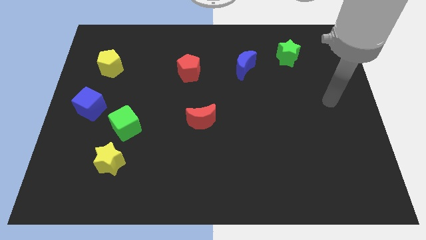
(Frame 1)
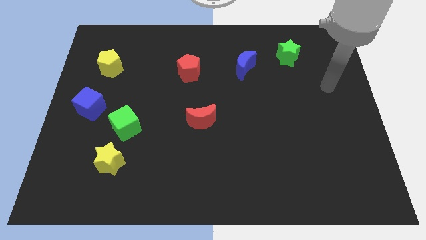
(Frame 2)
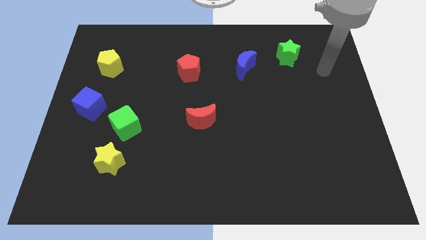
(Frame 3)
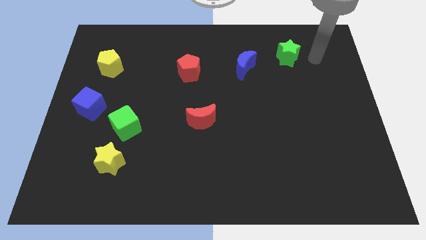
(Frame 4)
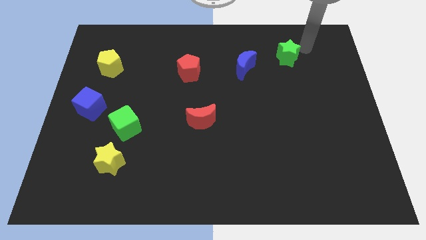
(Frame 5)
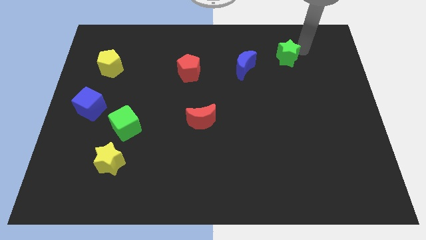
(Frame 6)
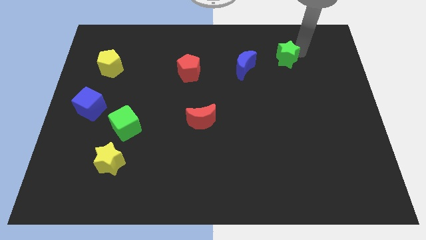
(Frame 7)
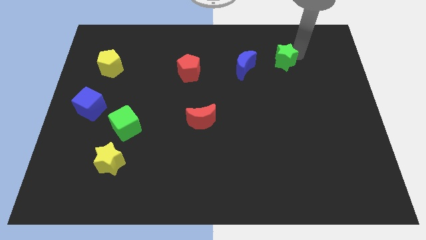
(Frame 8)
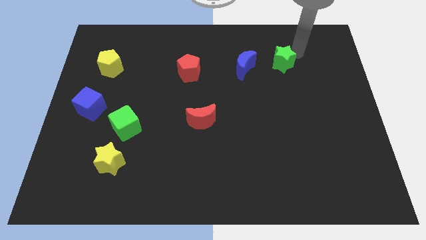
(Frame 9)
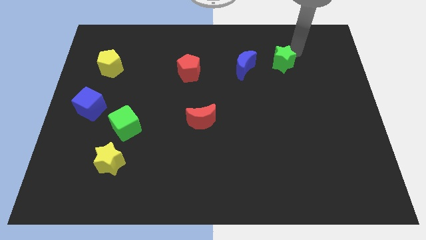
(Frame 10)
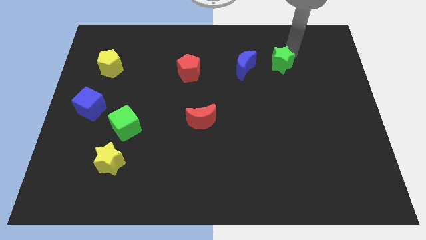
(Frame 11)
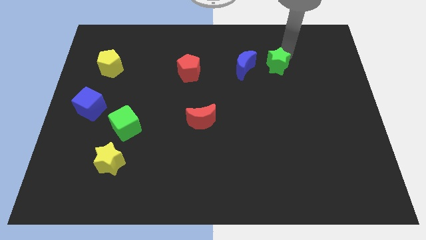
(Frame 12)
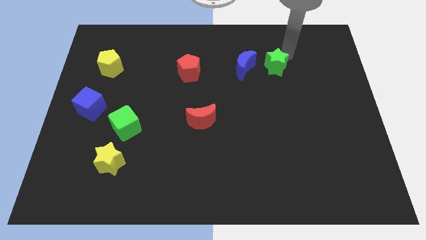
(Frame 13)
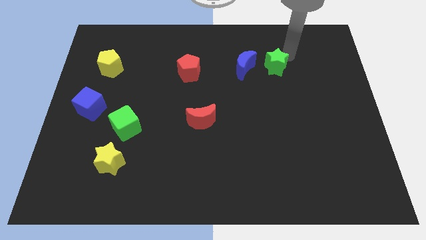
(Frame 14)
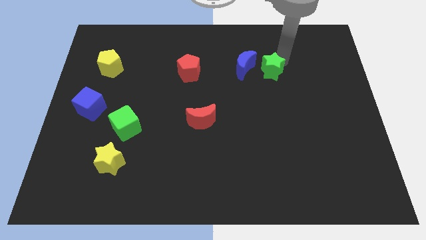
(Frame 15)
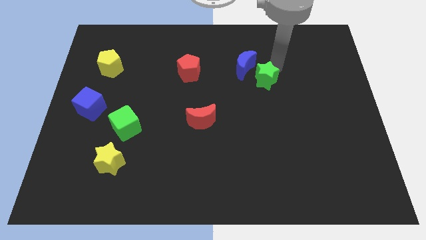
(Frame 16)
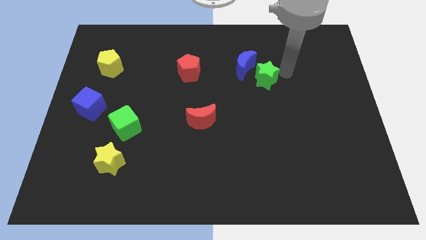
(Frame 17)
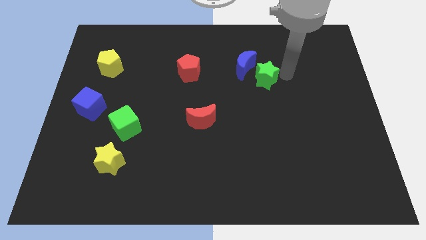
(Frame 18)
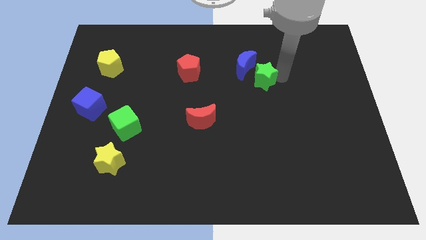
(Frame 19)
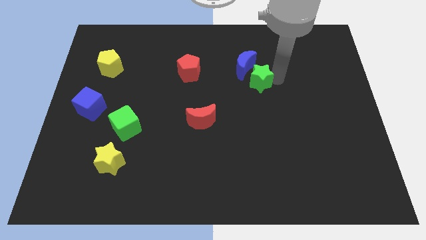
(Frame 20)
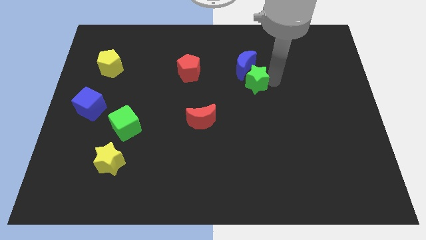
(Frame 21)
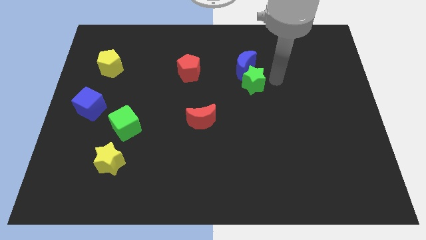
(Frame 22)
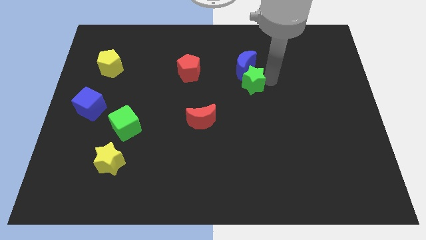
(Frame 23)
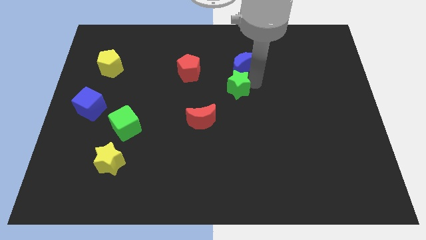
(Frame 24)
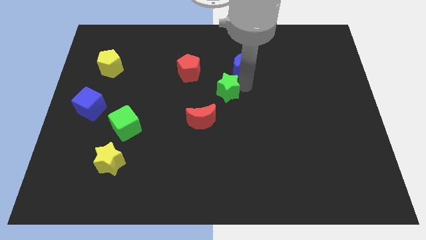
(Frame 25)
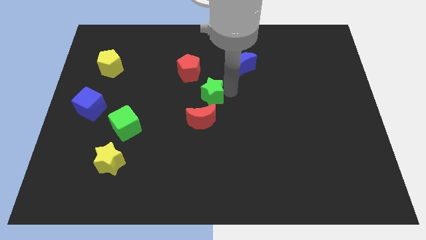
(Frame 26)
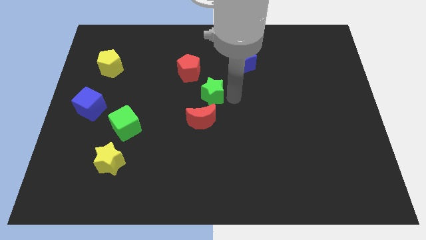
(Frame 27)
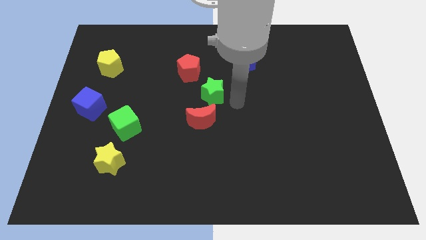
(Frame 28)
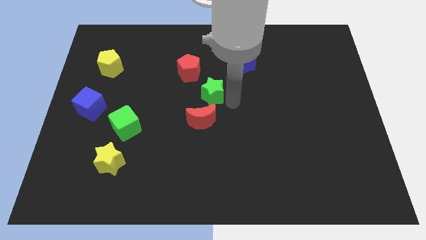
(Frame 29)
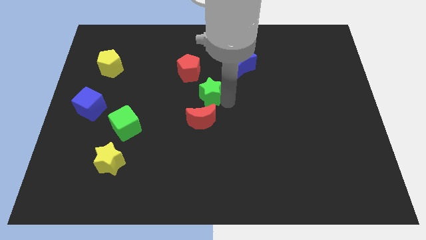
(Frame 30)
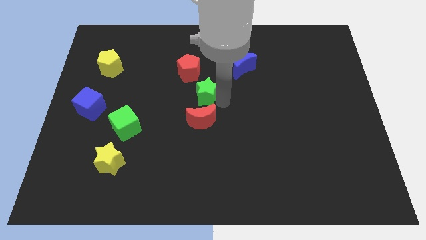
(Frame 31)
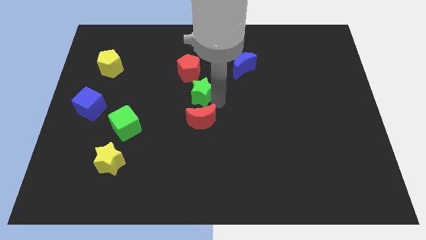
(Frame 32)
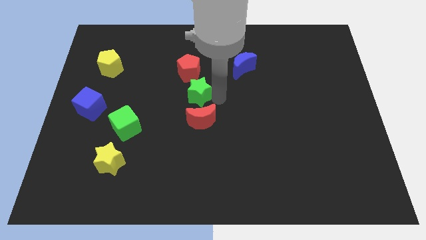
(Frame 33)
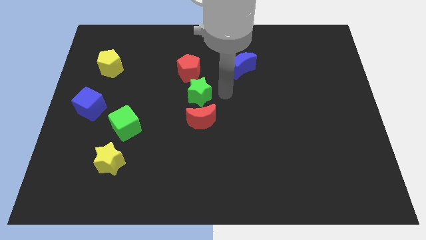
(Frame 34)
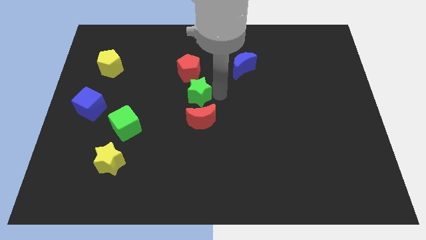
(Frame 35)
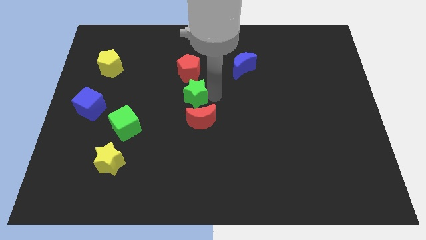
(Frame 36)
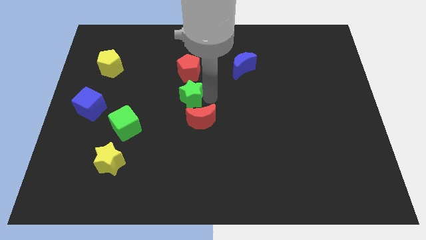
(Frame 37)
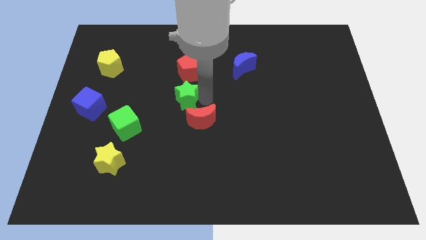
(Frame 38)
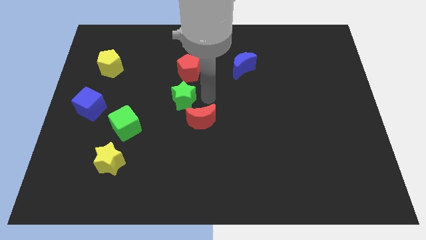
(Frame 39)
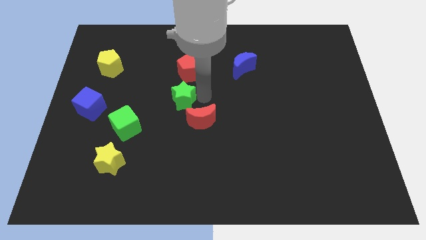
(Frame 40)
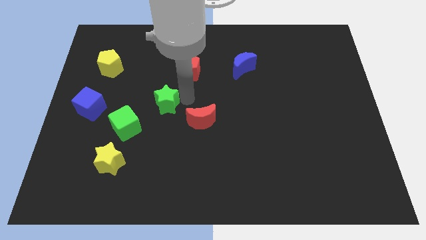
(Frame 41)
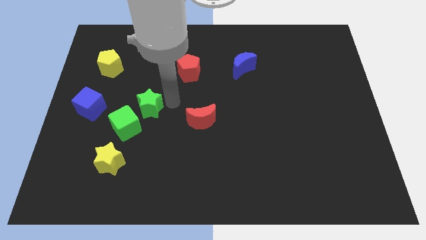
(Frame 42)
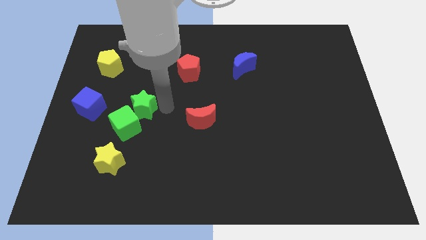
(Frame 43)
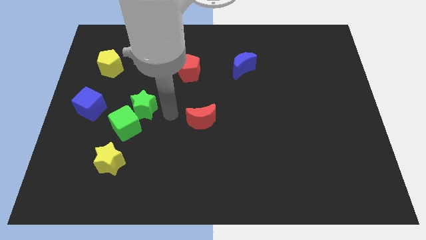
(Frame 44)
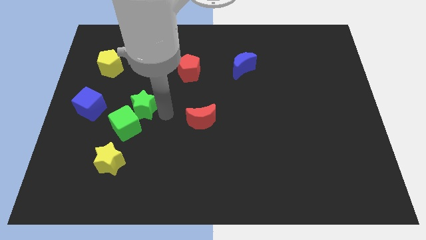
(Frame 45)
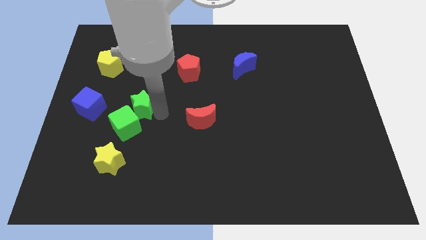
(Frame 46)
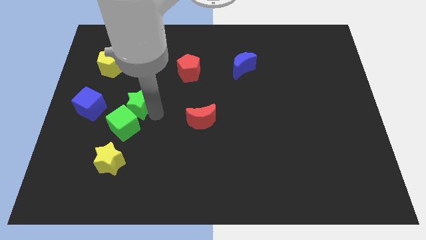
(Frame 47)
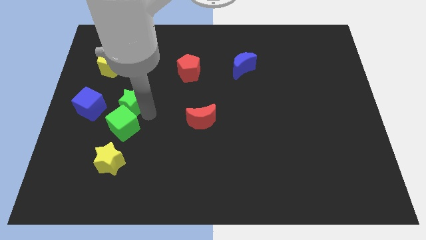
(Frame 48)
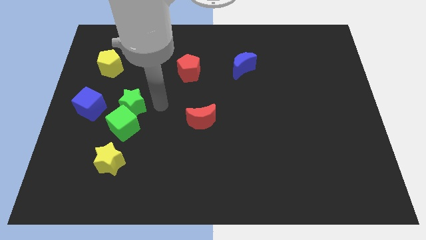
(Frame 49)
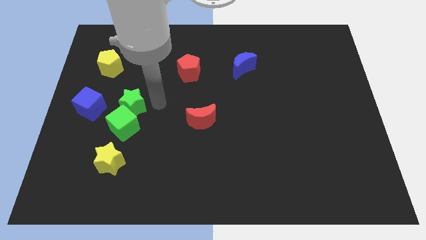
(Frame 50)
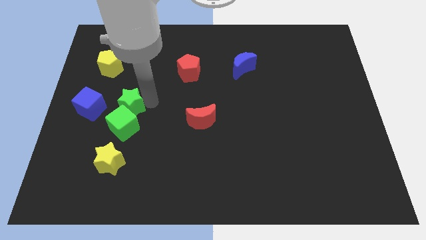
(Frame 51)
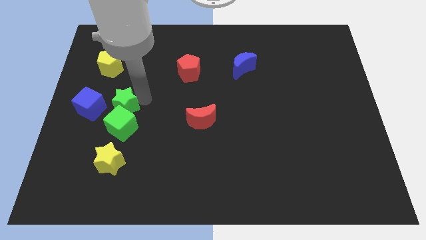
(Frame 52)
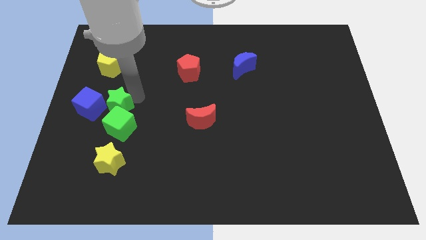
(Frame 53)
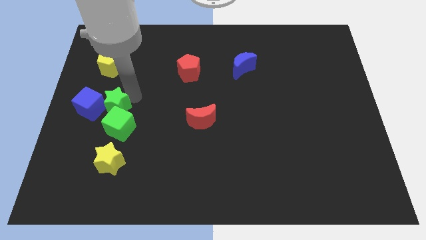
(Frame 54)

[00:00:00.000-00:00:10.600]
move the green star towards the blue cube

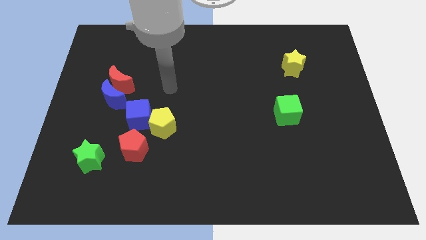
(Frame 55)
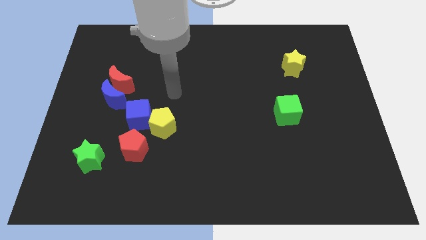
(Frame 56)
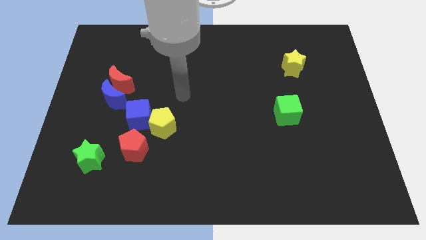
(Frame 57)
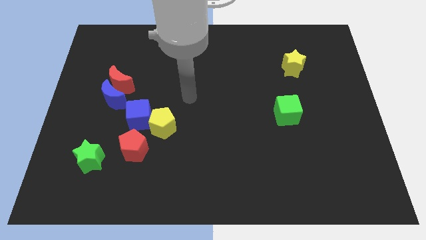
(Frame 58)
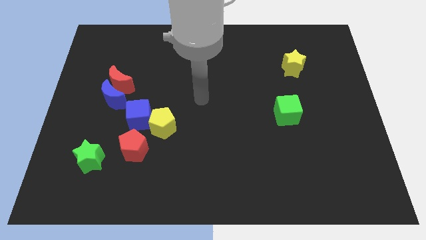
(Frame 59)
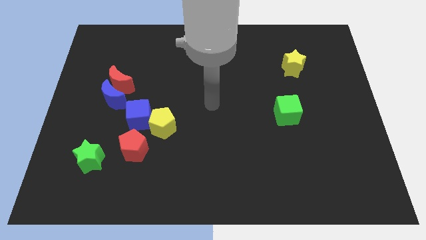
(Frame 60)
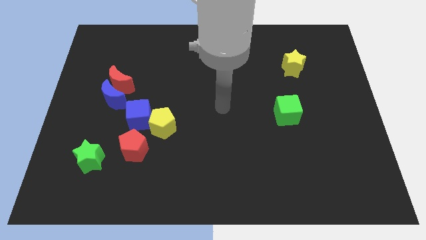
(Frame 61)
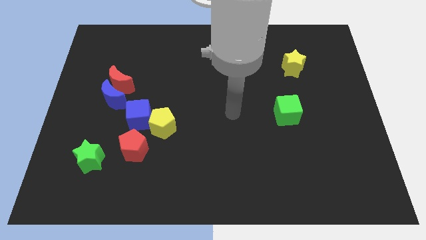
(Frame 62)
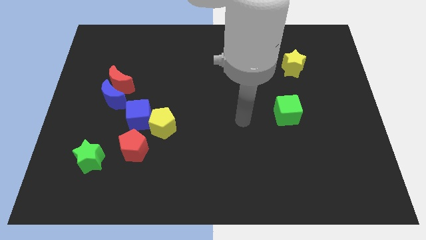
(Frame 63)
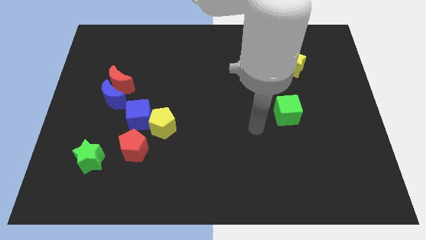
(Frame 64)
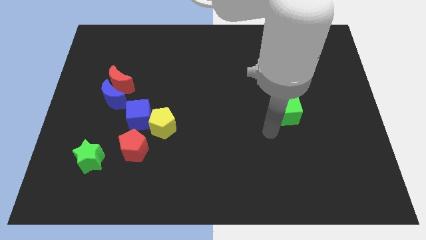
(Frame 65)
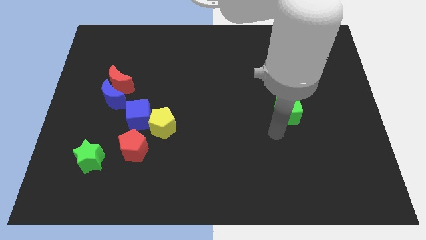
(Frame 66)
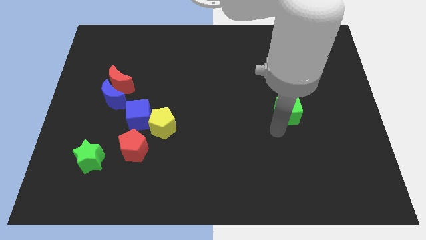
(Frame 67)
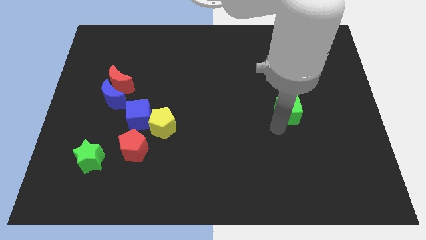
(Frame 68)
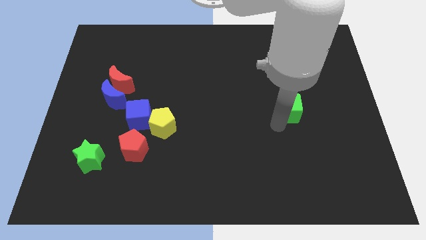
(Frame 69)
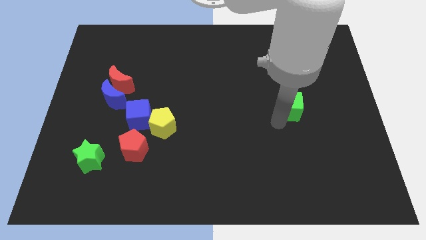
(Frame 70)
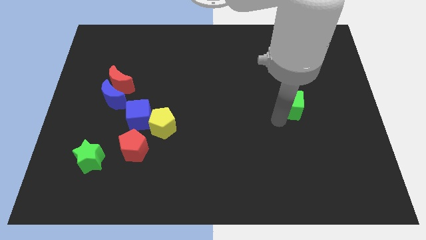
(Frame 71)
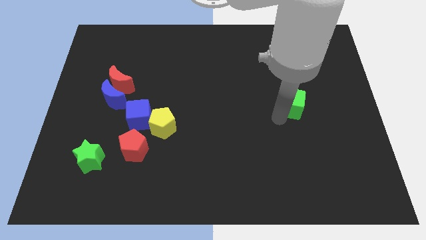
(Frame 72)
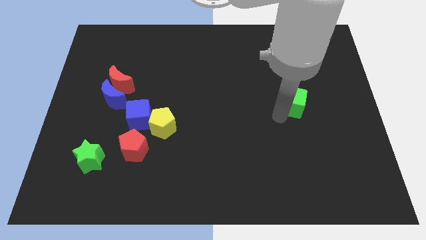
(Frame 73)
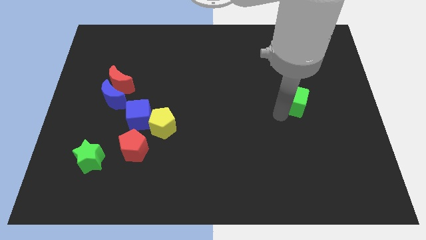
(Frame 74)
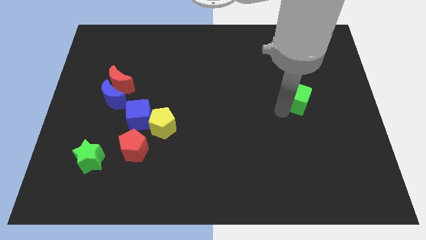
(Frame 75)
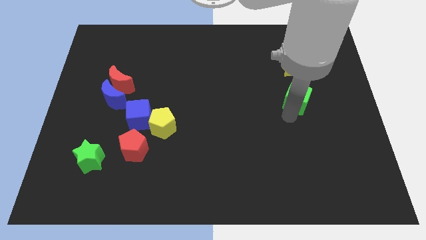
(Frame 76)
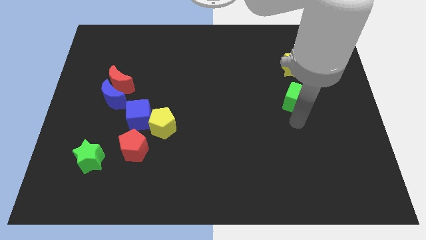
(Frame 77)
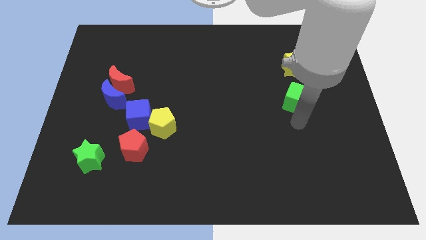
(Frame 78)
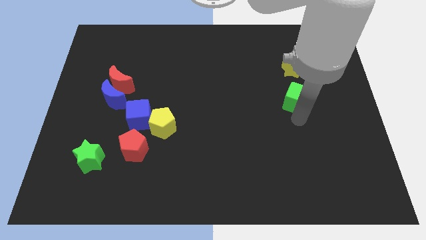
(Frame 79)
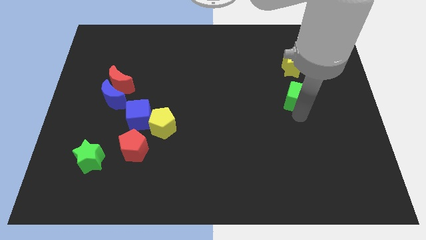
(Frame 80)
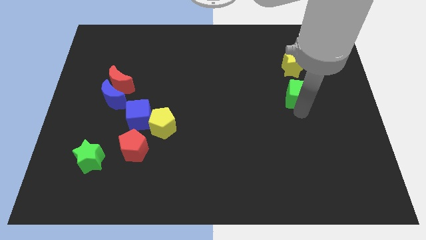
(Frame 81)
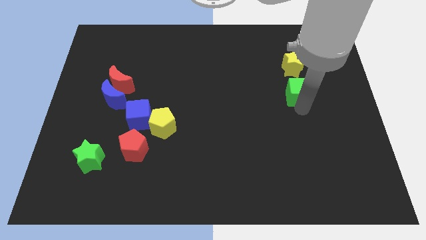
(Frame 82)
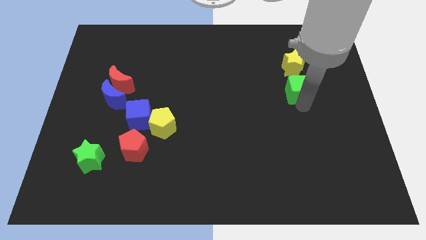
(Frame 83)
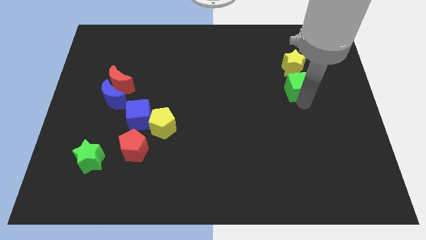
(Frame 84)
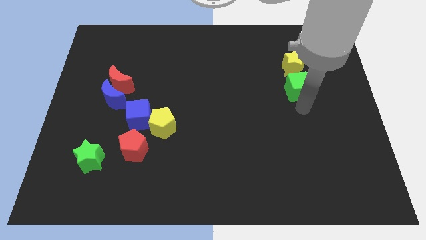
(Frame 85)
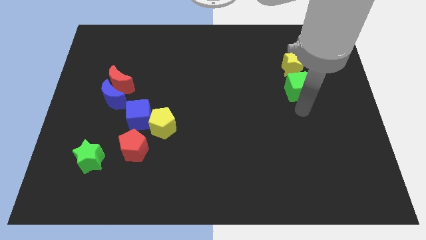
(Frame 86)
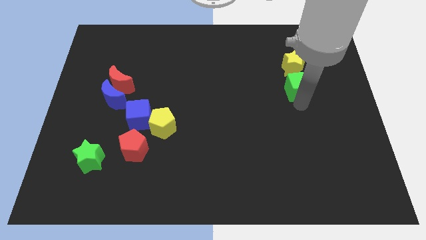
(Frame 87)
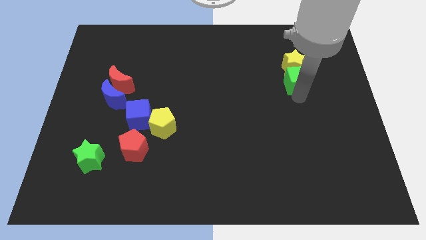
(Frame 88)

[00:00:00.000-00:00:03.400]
move the green cube close to the yellow star
